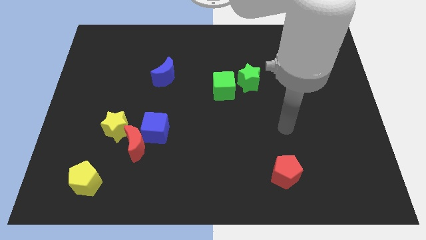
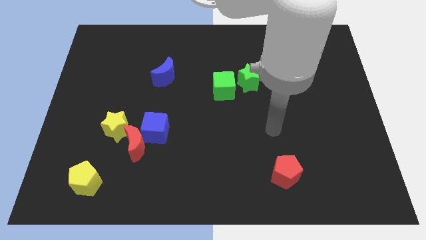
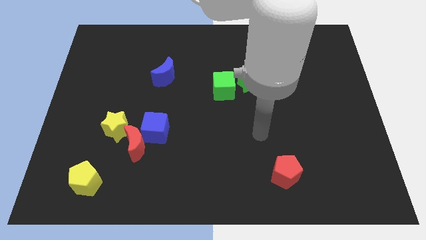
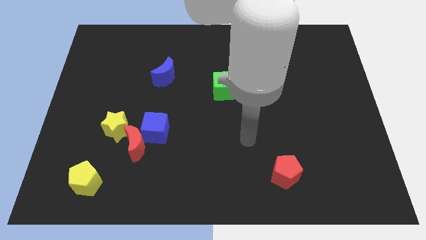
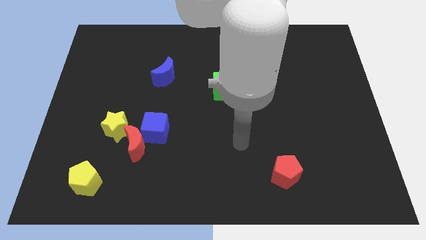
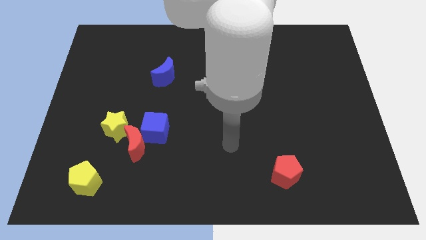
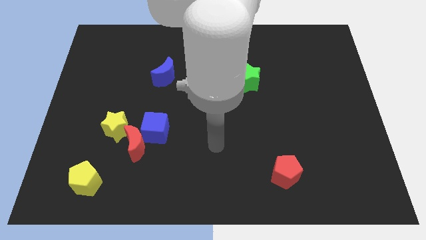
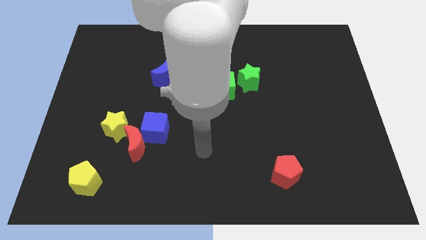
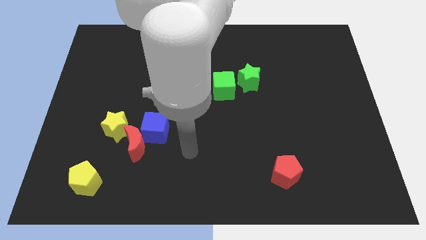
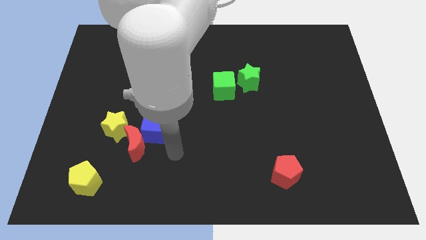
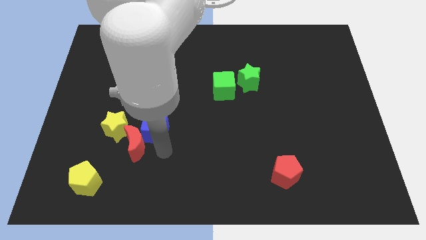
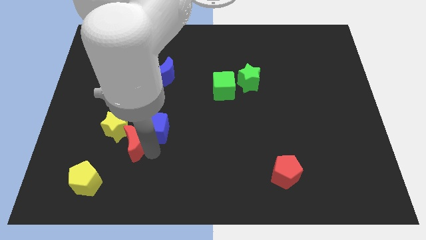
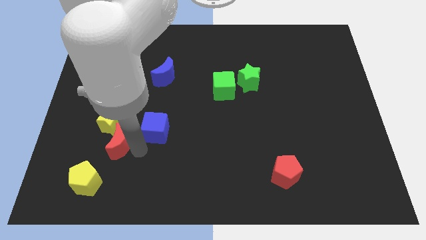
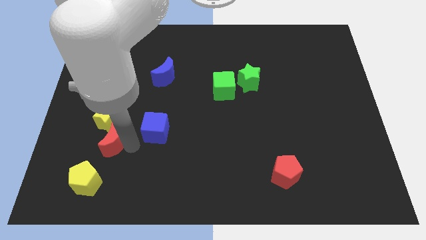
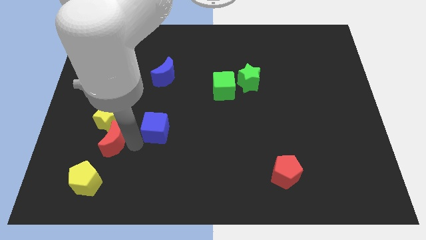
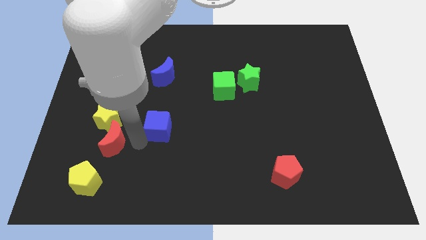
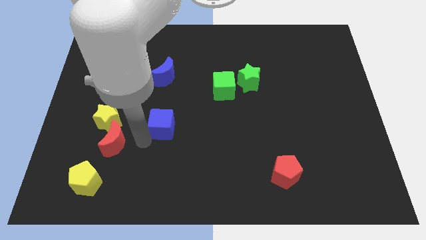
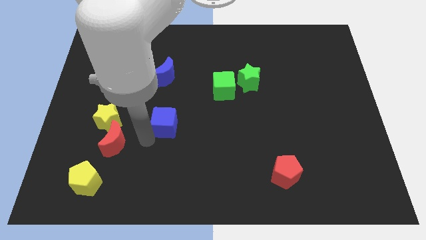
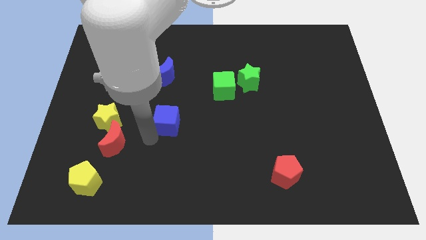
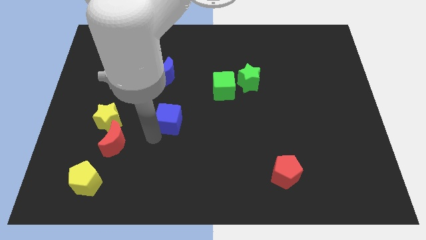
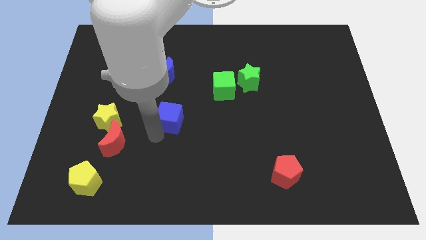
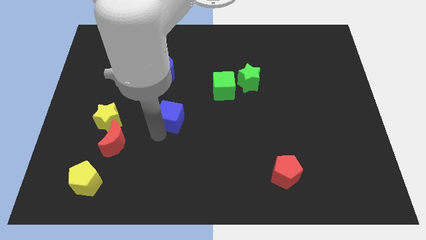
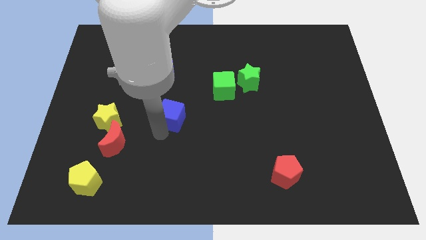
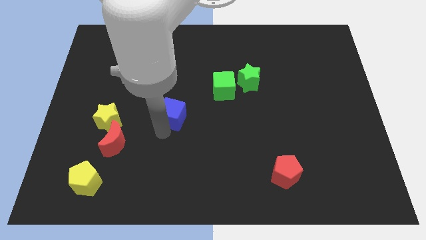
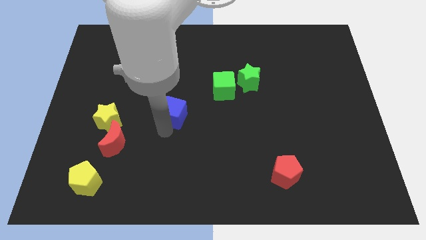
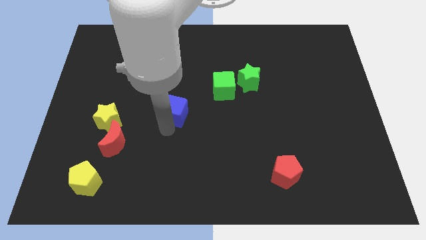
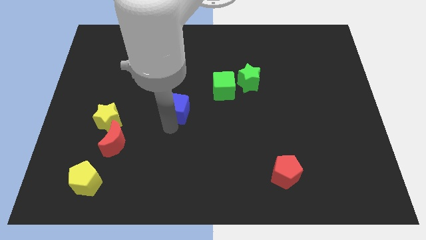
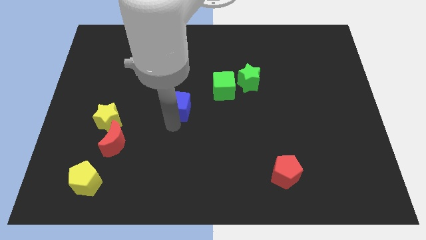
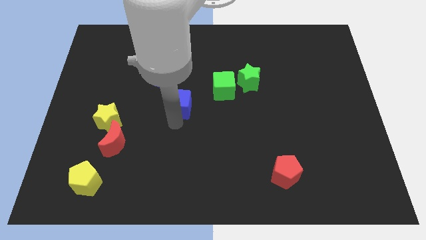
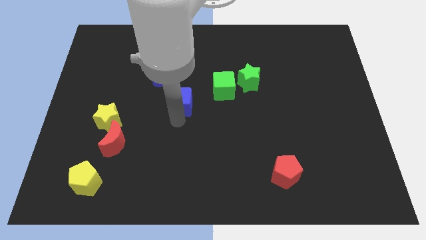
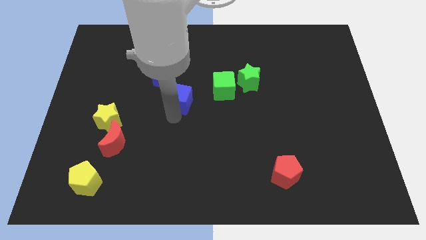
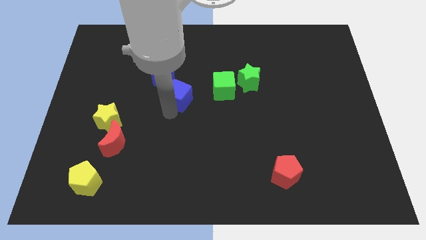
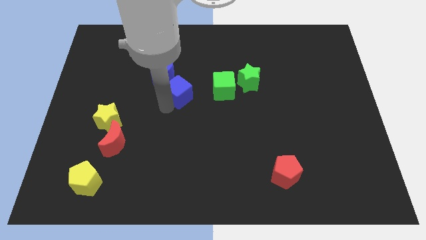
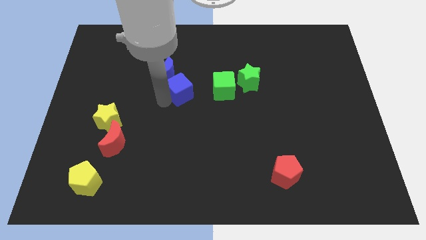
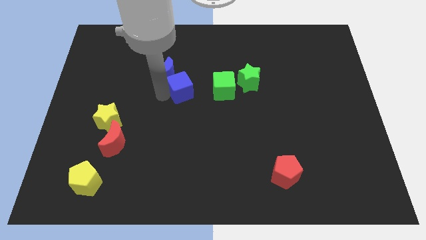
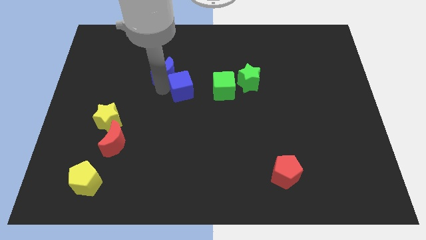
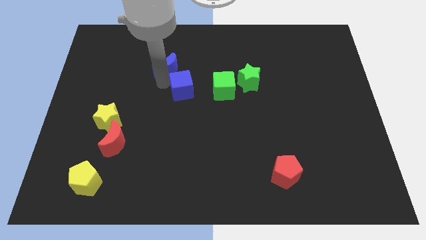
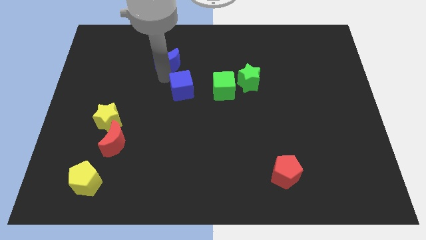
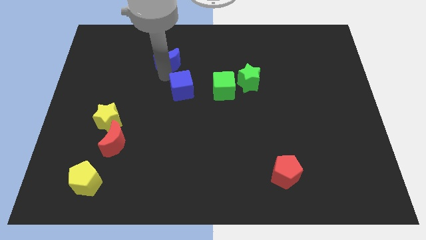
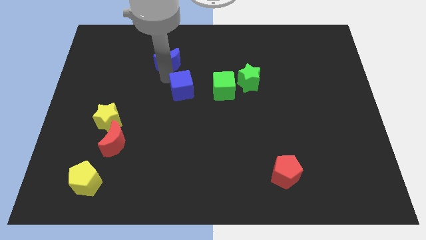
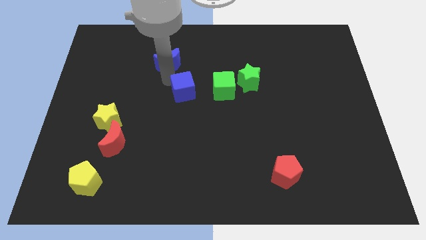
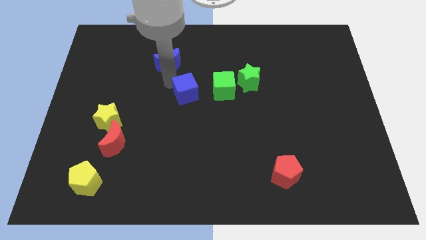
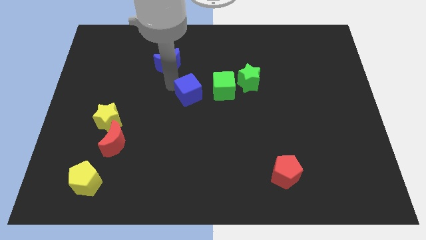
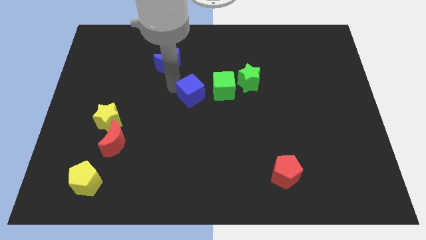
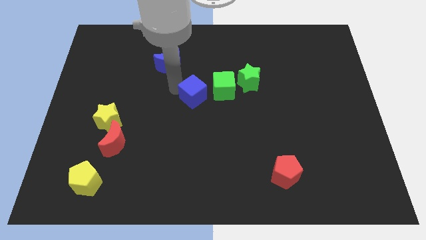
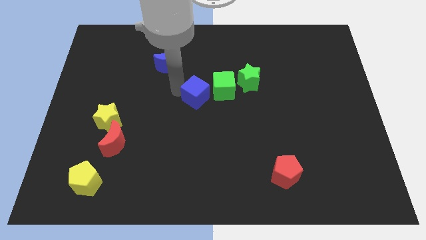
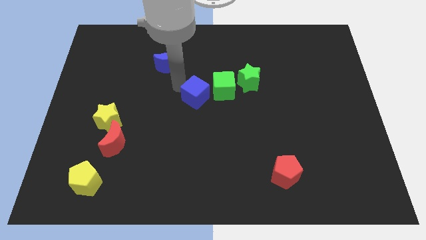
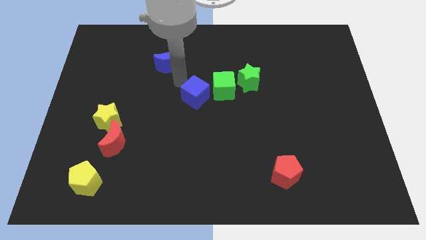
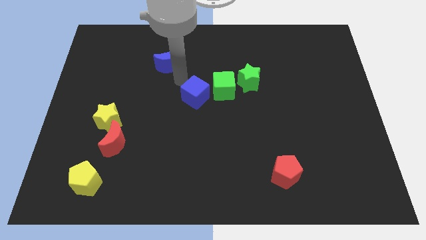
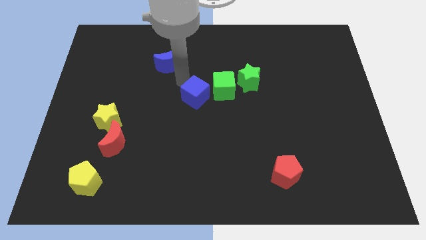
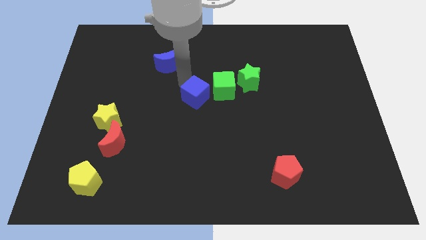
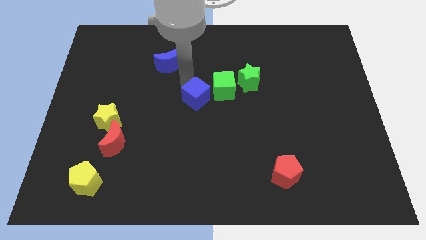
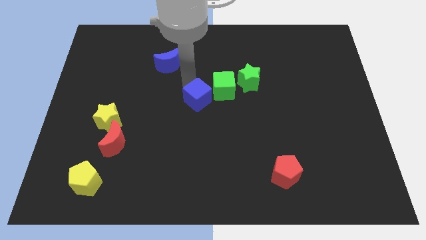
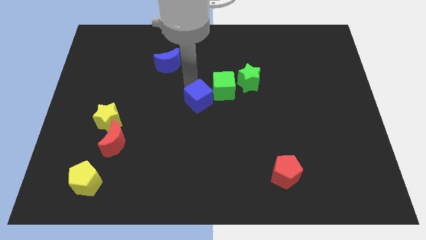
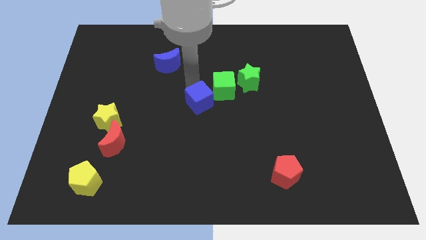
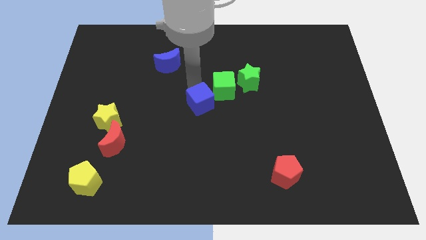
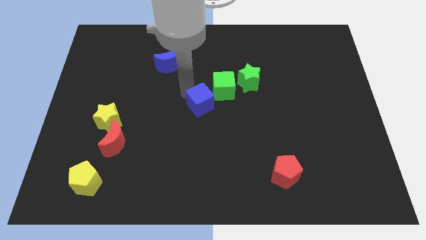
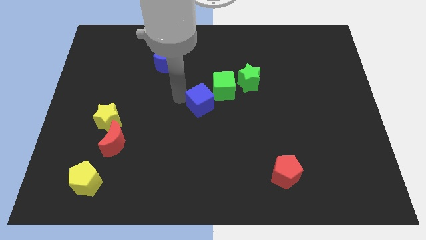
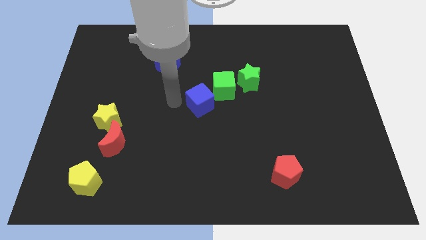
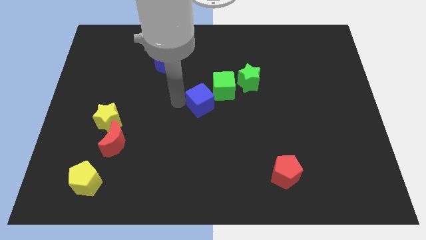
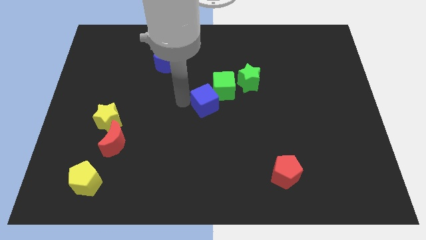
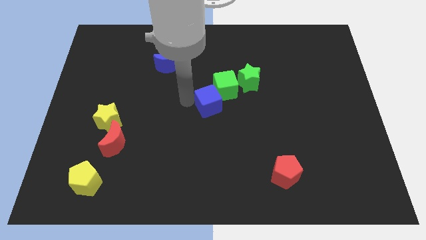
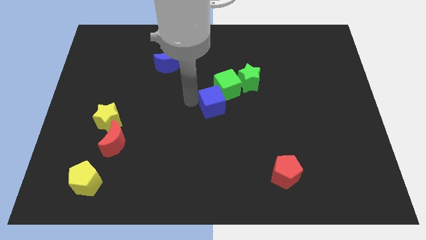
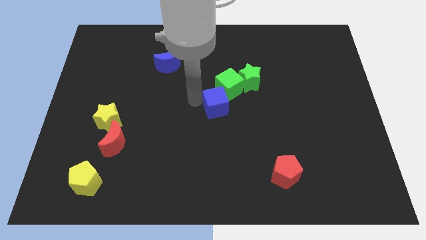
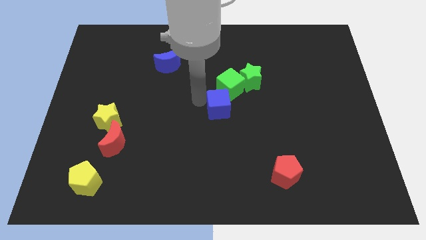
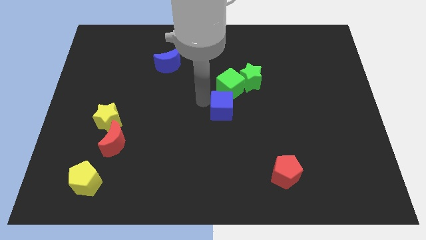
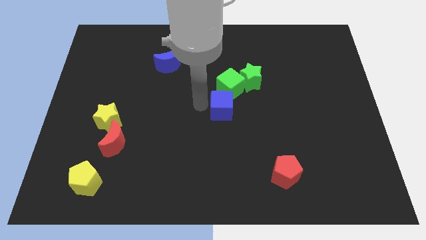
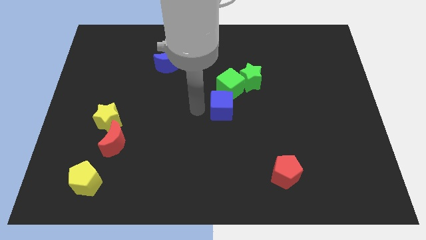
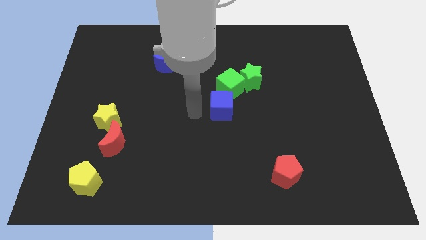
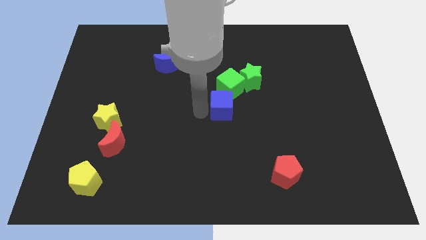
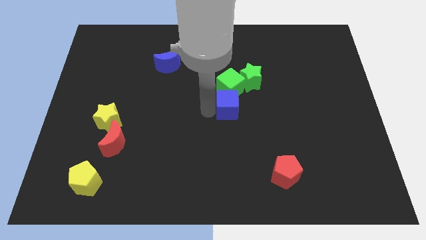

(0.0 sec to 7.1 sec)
slide the blue cube to the bottom right side of the green cube
